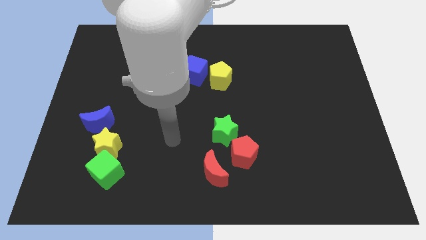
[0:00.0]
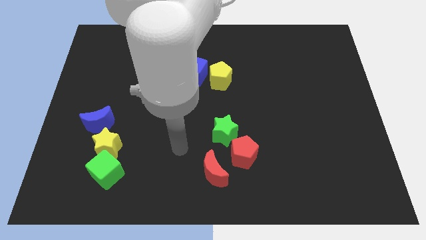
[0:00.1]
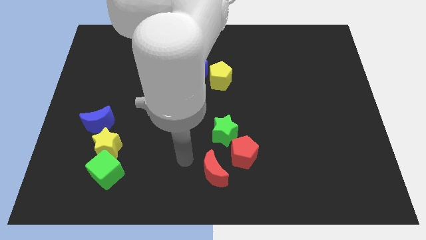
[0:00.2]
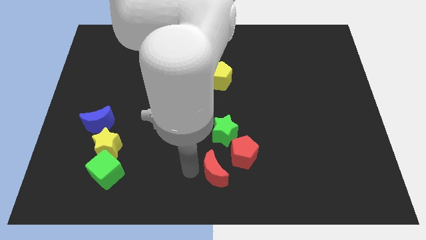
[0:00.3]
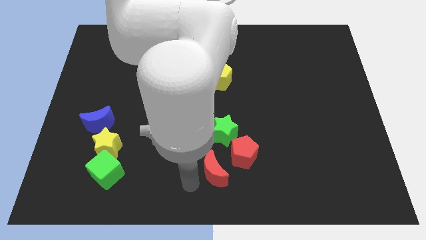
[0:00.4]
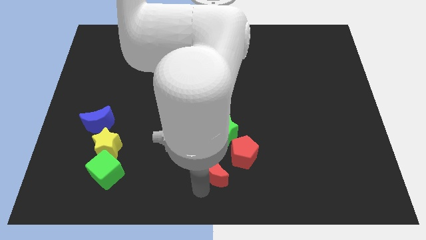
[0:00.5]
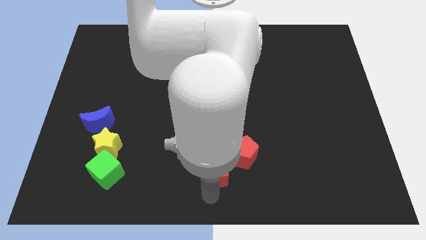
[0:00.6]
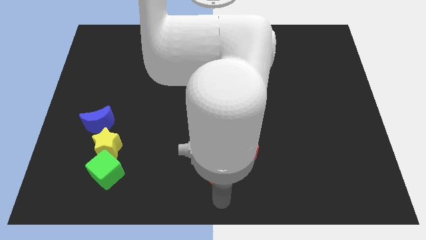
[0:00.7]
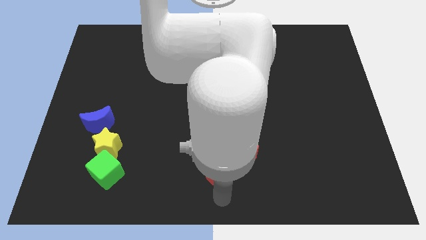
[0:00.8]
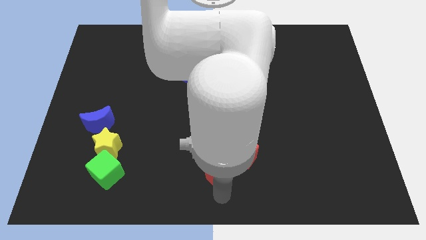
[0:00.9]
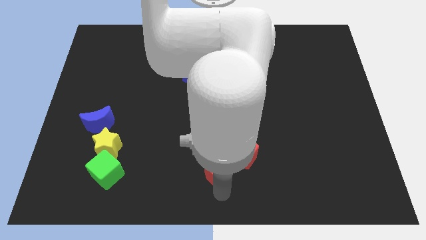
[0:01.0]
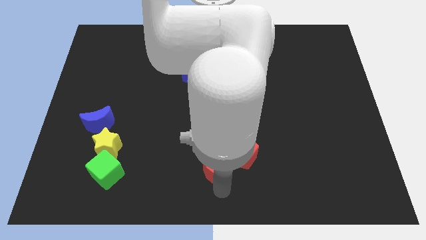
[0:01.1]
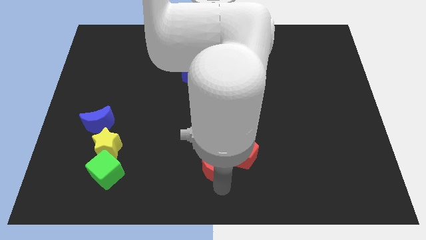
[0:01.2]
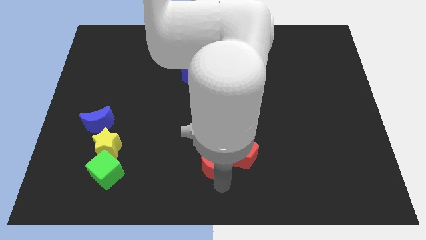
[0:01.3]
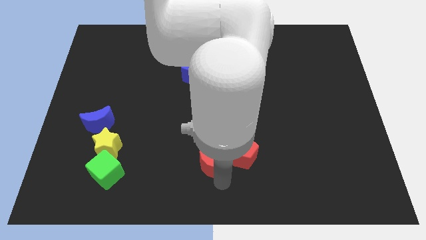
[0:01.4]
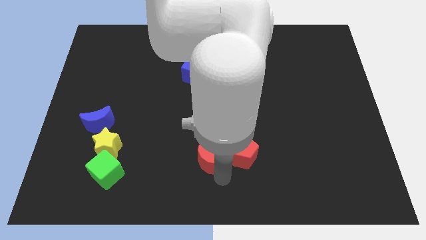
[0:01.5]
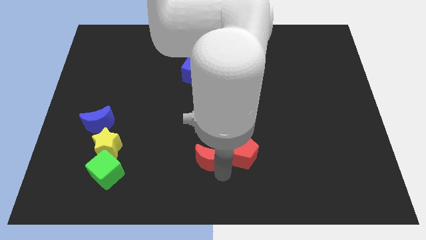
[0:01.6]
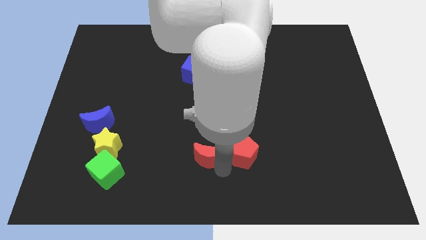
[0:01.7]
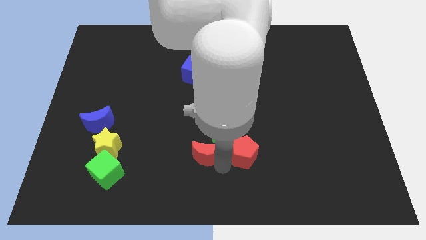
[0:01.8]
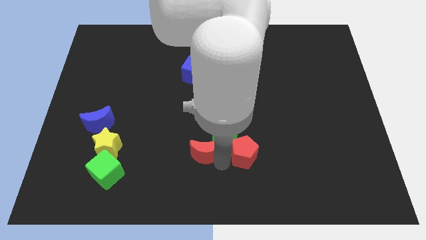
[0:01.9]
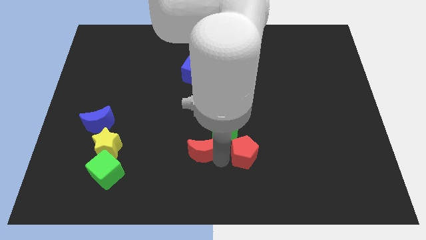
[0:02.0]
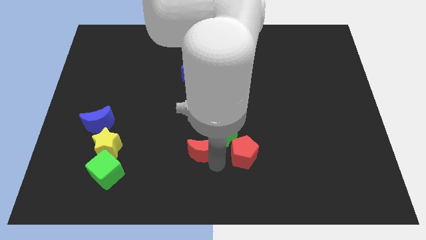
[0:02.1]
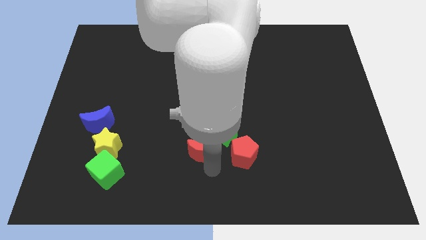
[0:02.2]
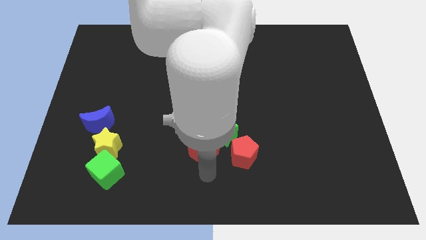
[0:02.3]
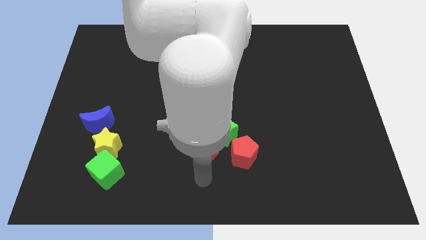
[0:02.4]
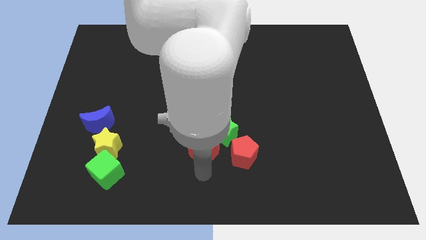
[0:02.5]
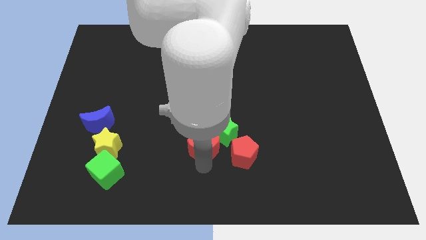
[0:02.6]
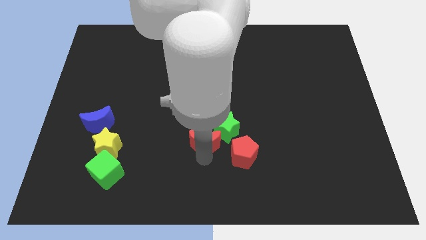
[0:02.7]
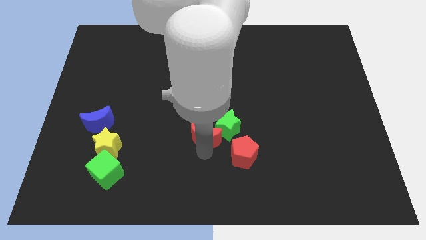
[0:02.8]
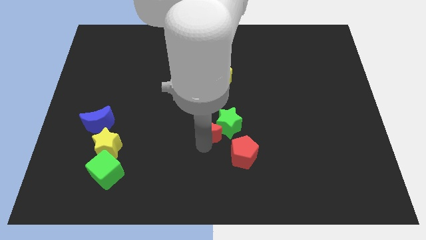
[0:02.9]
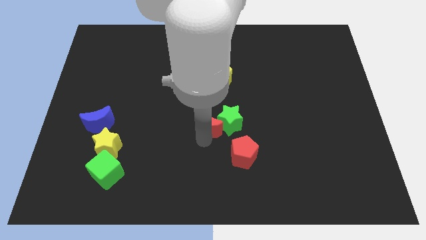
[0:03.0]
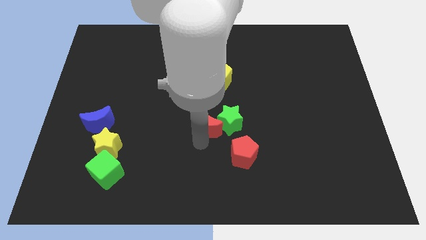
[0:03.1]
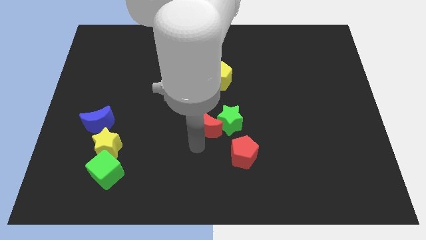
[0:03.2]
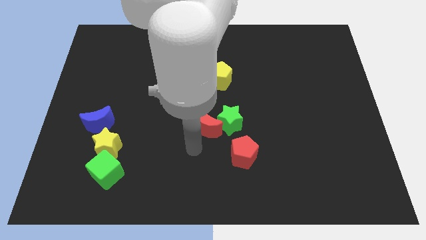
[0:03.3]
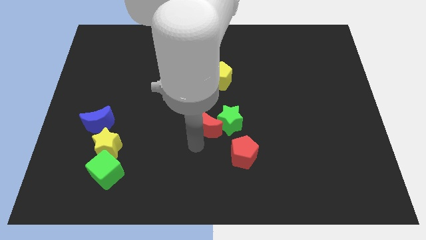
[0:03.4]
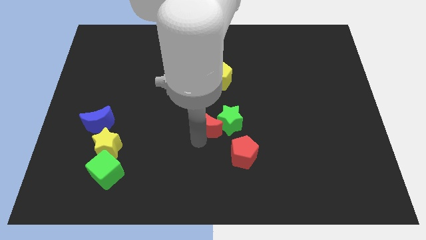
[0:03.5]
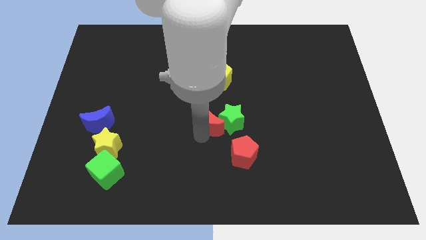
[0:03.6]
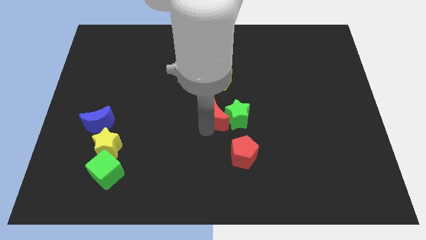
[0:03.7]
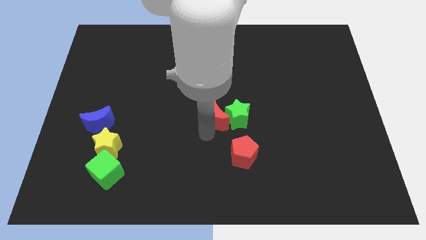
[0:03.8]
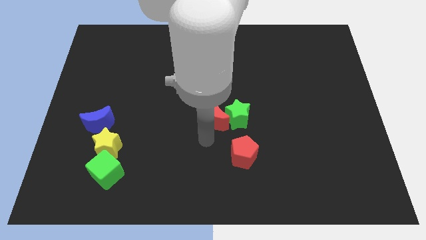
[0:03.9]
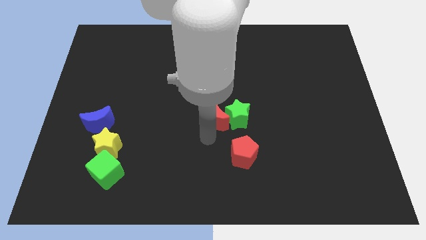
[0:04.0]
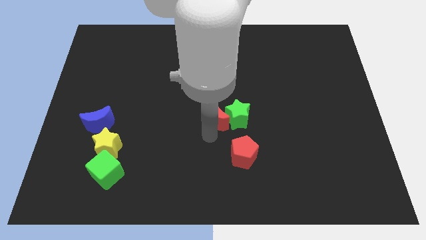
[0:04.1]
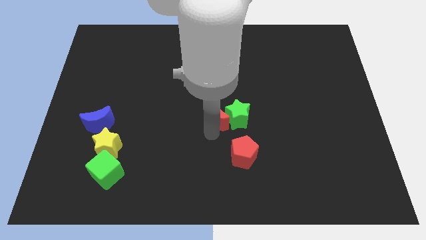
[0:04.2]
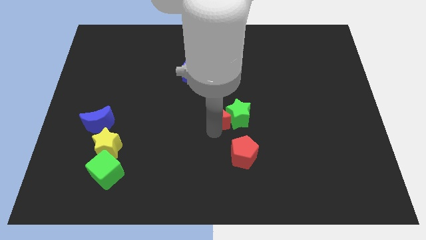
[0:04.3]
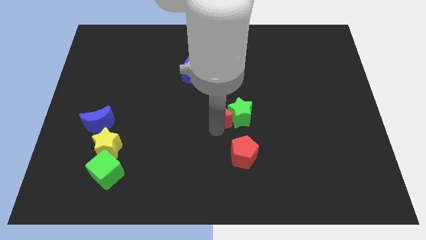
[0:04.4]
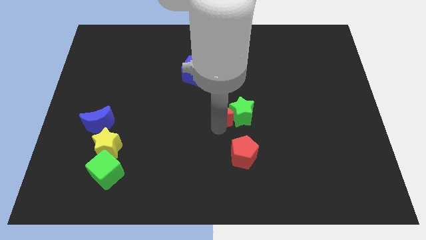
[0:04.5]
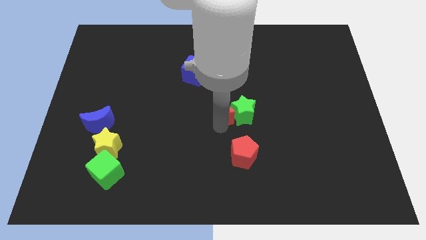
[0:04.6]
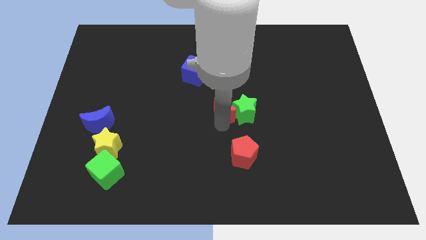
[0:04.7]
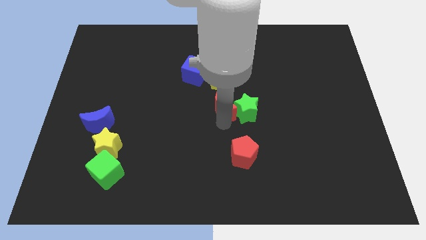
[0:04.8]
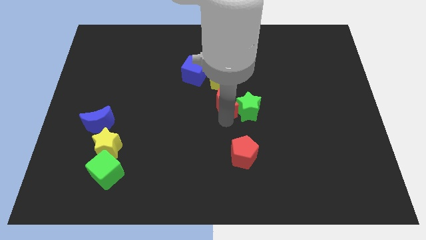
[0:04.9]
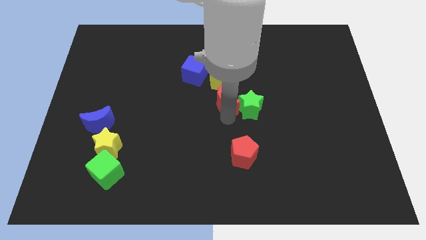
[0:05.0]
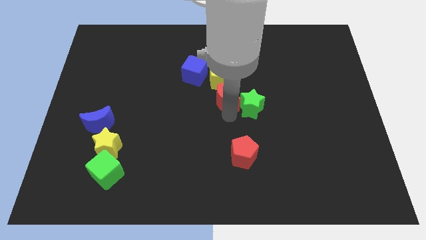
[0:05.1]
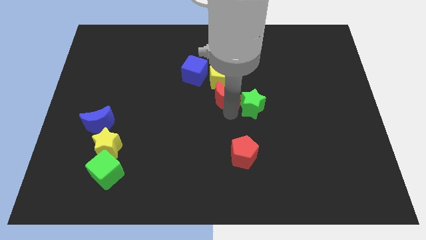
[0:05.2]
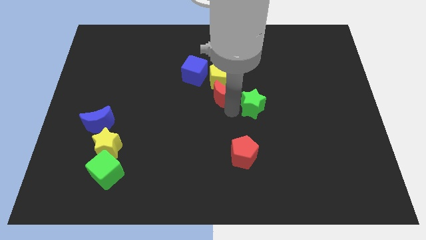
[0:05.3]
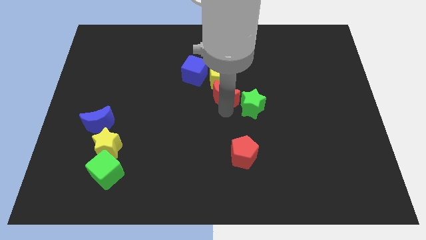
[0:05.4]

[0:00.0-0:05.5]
slide the red moon upwards

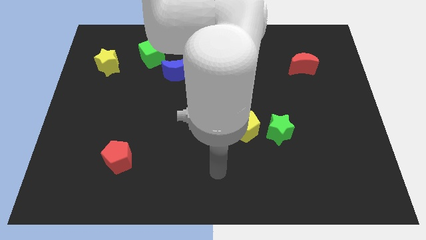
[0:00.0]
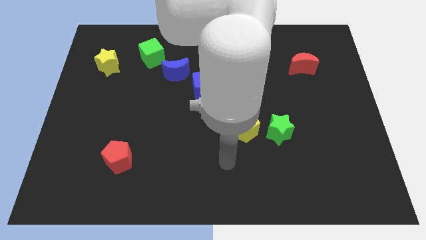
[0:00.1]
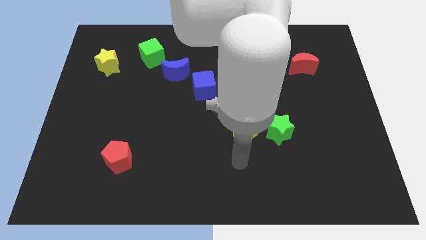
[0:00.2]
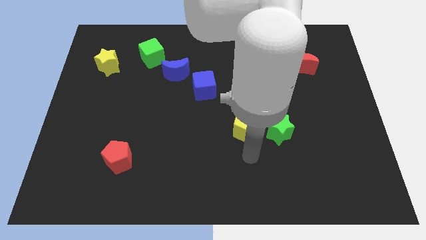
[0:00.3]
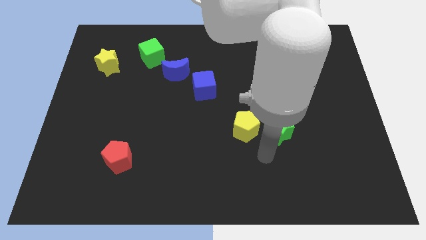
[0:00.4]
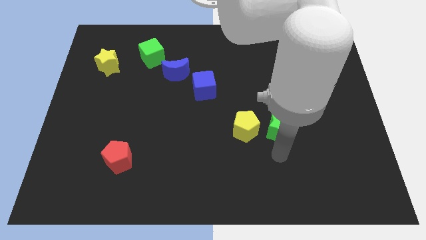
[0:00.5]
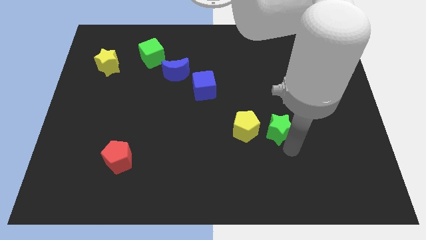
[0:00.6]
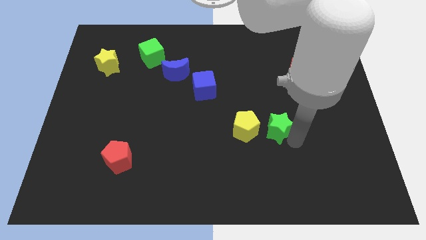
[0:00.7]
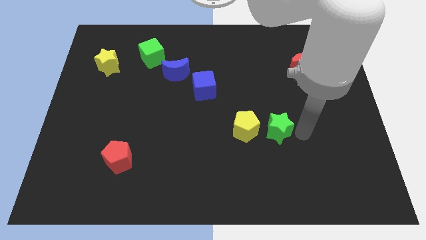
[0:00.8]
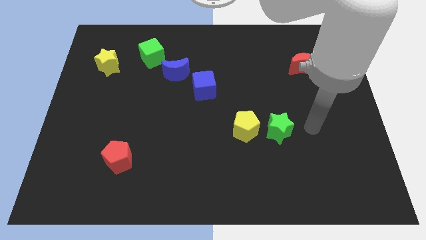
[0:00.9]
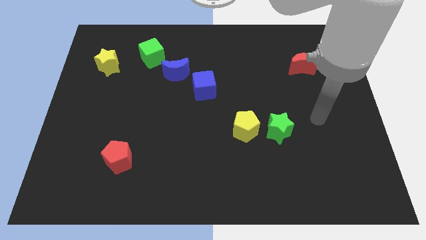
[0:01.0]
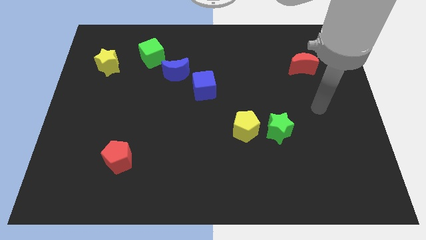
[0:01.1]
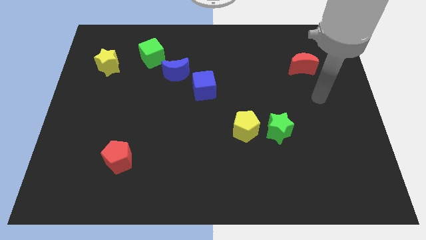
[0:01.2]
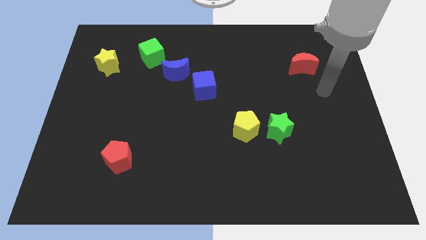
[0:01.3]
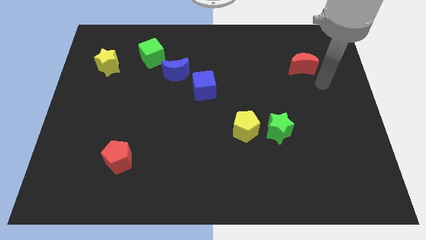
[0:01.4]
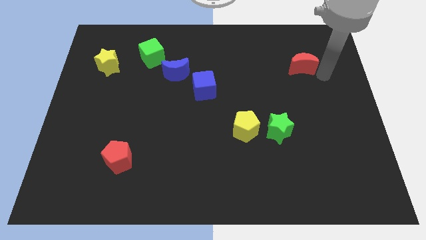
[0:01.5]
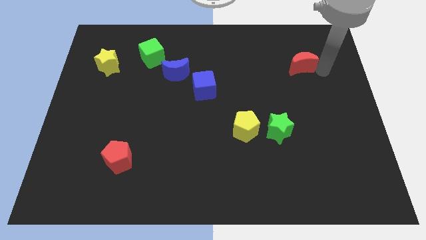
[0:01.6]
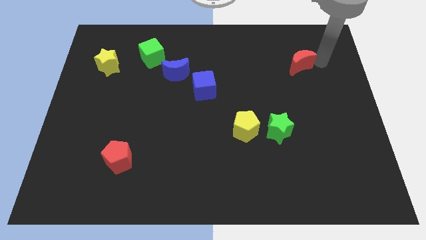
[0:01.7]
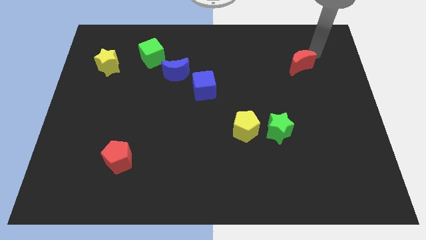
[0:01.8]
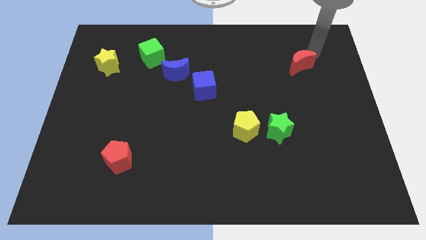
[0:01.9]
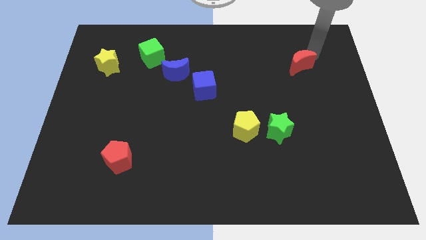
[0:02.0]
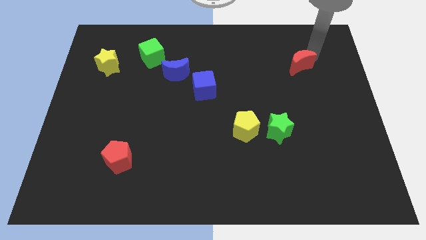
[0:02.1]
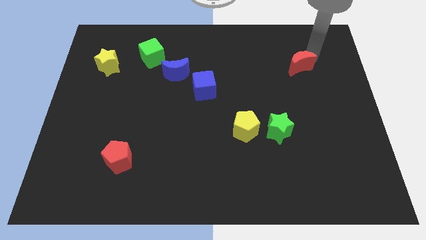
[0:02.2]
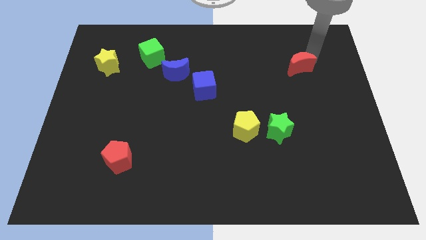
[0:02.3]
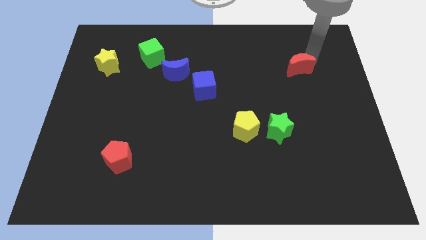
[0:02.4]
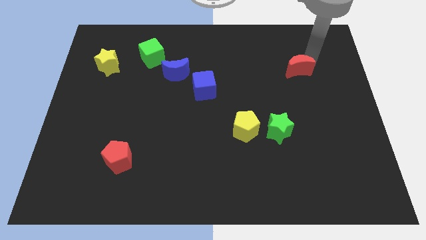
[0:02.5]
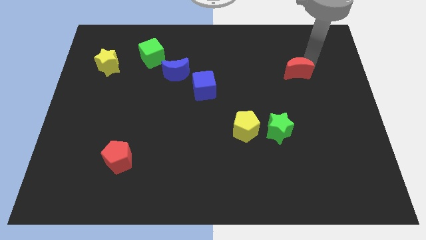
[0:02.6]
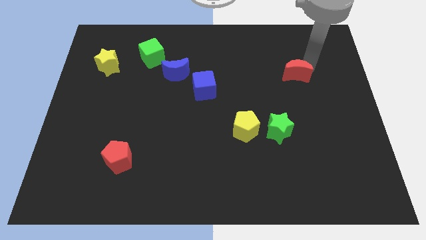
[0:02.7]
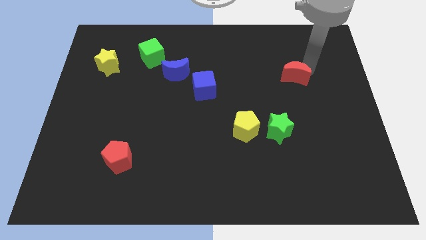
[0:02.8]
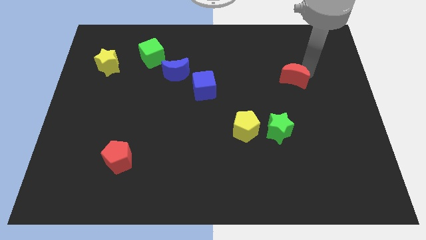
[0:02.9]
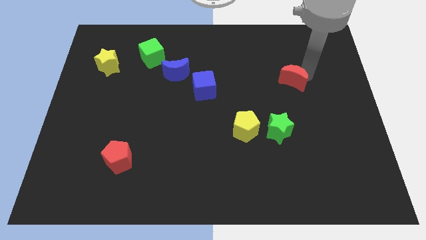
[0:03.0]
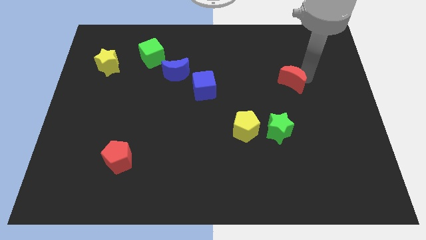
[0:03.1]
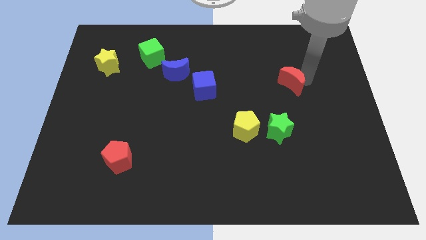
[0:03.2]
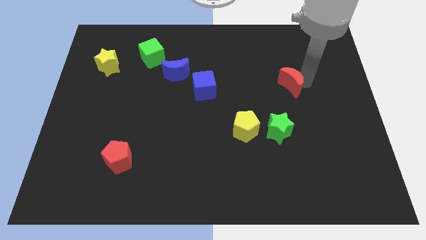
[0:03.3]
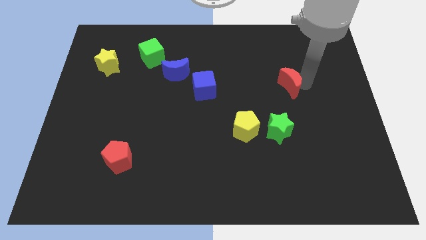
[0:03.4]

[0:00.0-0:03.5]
slightly move the red moon diagonally down and to the left
